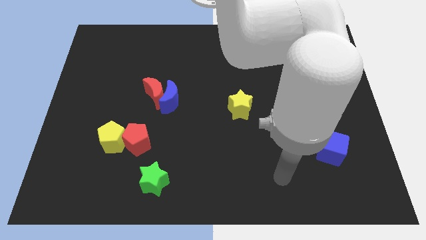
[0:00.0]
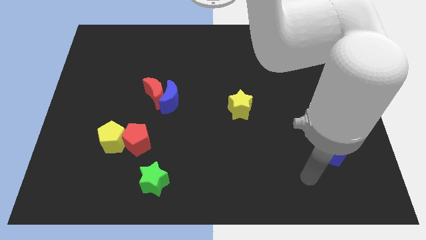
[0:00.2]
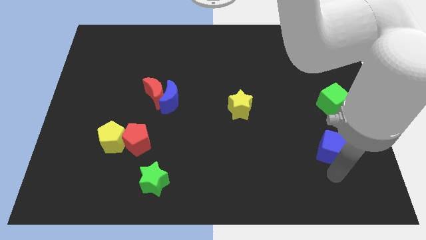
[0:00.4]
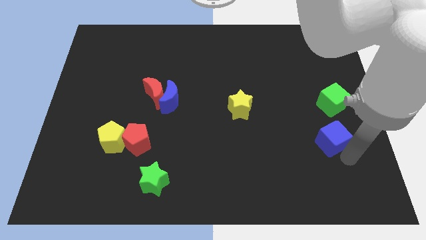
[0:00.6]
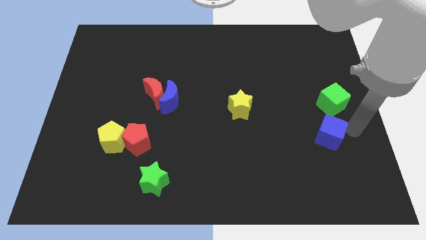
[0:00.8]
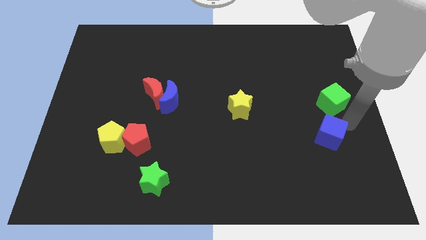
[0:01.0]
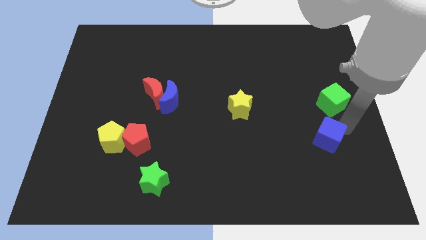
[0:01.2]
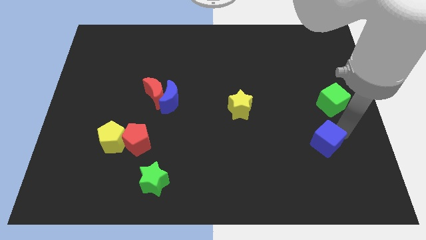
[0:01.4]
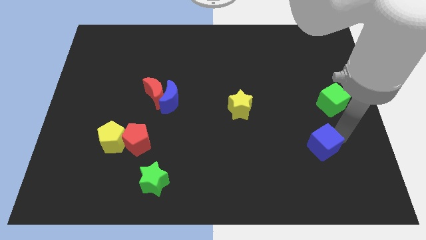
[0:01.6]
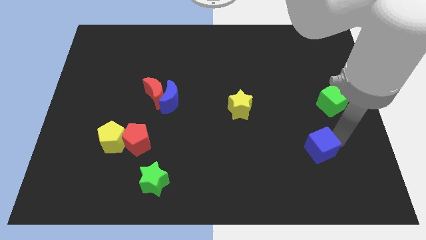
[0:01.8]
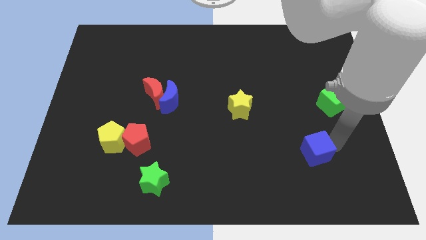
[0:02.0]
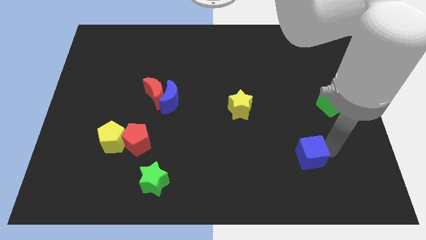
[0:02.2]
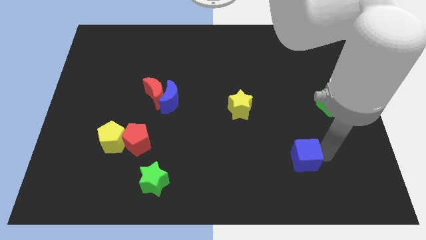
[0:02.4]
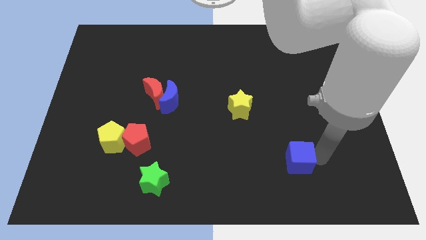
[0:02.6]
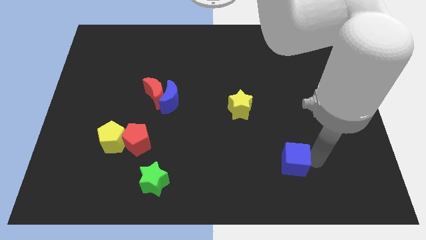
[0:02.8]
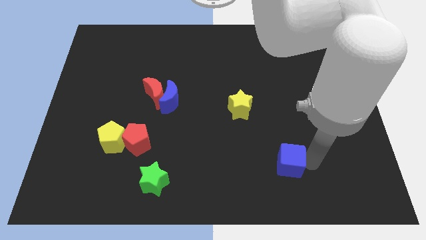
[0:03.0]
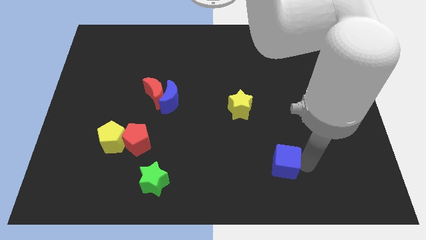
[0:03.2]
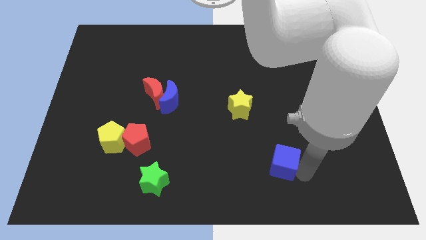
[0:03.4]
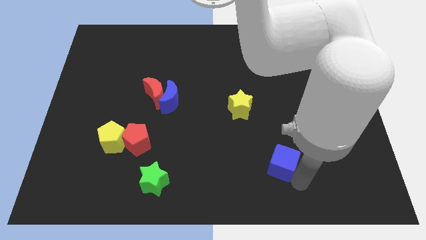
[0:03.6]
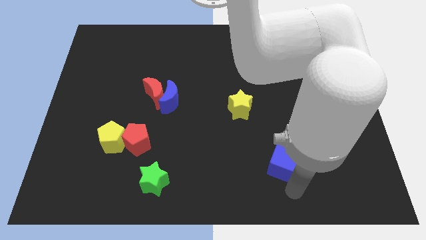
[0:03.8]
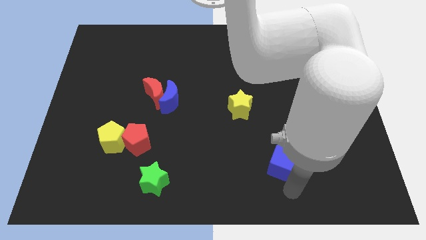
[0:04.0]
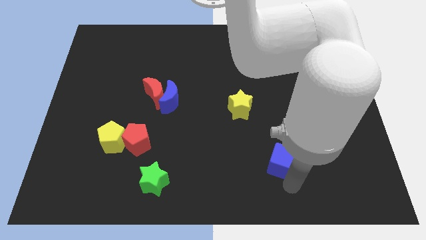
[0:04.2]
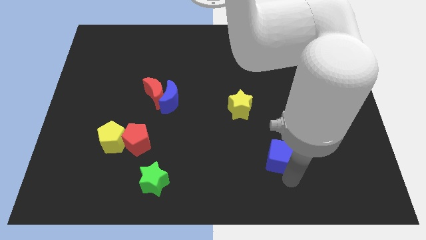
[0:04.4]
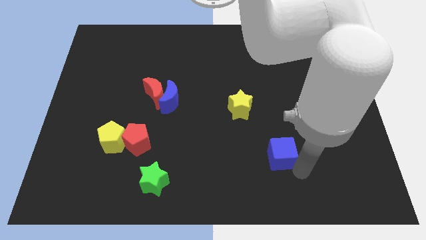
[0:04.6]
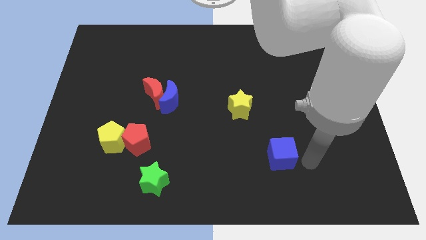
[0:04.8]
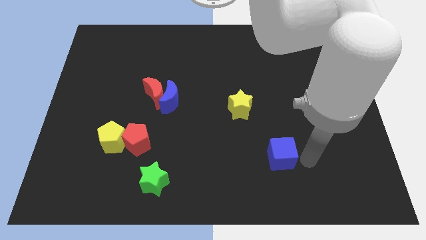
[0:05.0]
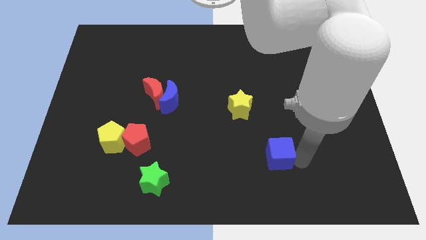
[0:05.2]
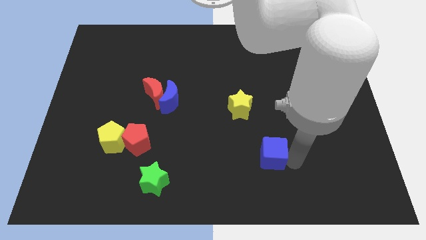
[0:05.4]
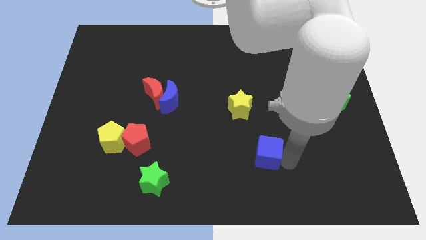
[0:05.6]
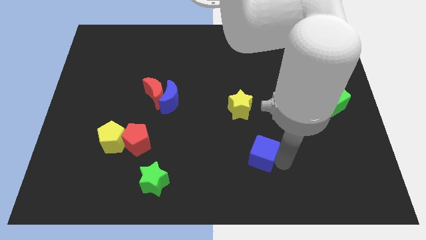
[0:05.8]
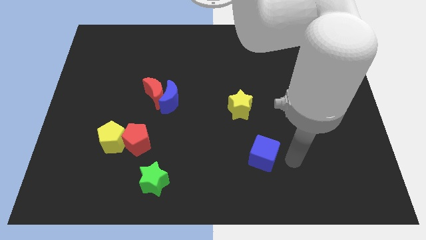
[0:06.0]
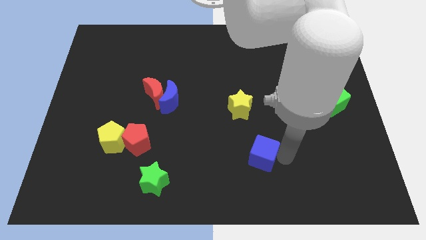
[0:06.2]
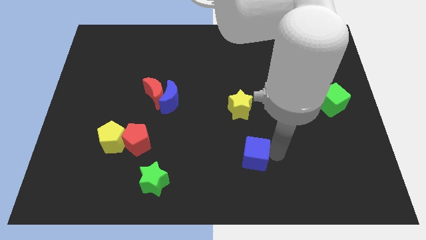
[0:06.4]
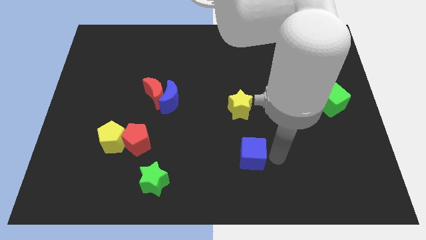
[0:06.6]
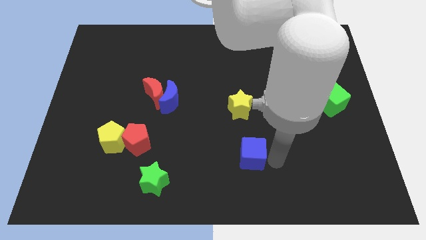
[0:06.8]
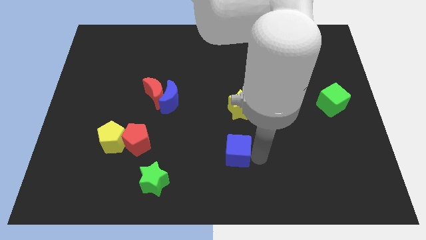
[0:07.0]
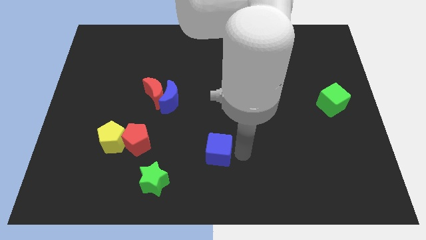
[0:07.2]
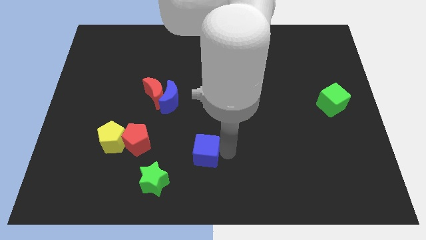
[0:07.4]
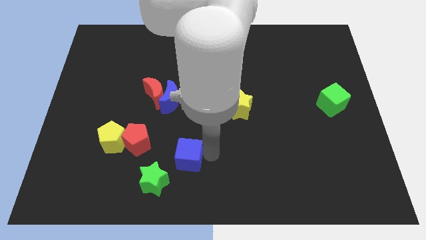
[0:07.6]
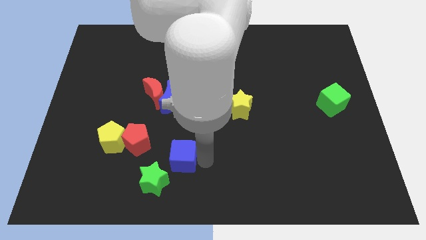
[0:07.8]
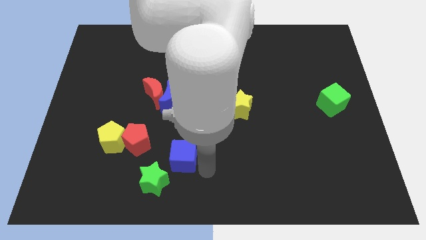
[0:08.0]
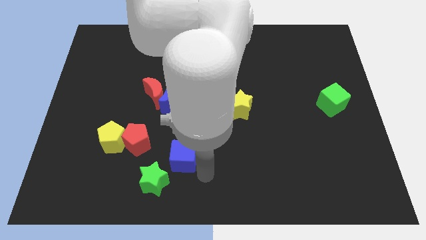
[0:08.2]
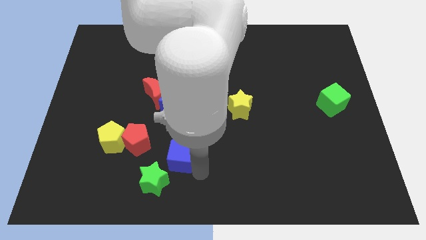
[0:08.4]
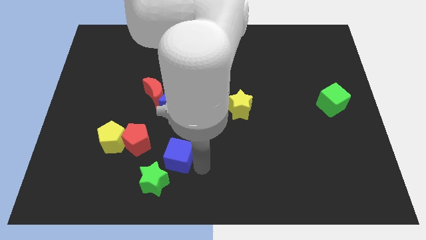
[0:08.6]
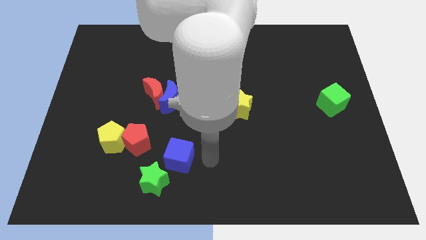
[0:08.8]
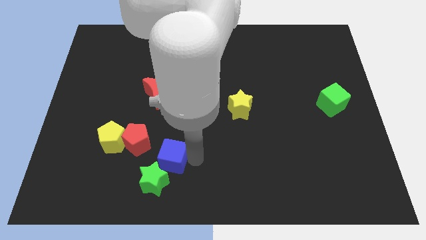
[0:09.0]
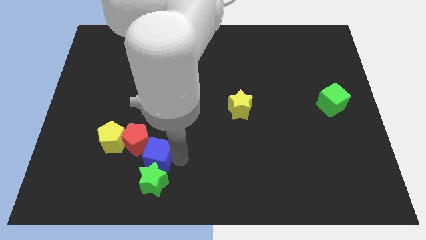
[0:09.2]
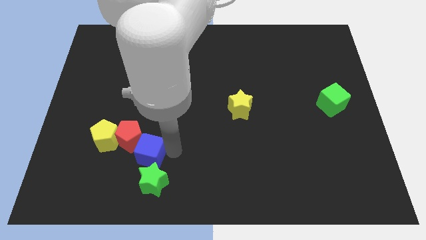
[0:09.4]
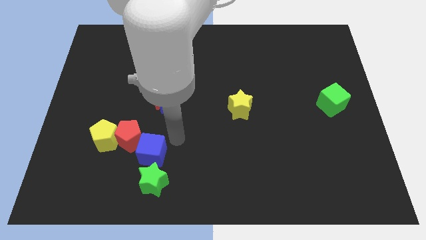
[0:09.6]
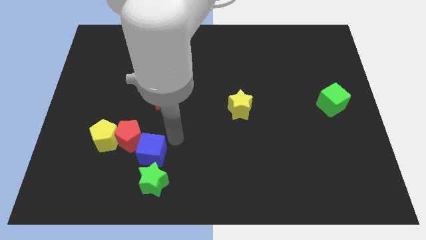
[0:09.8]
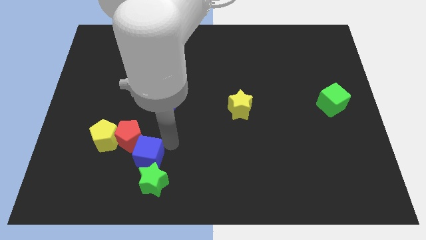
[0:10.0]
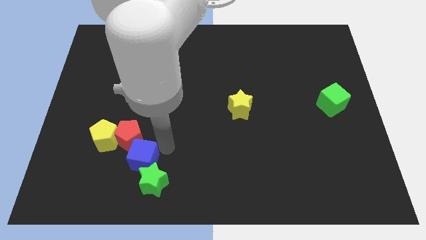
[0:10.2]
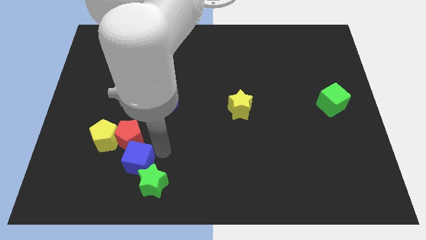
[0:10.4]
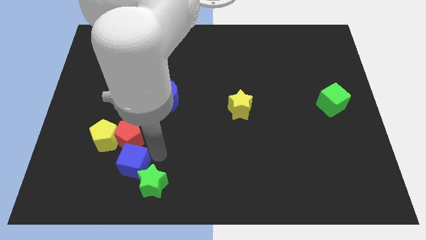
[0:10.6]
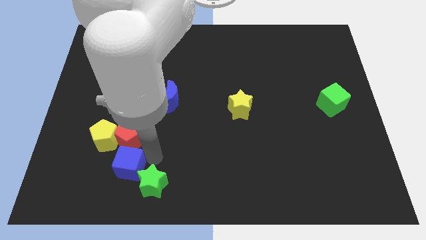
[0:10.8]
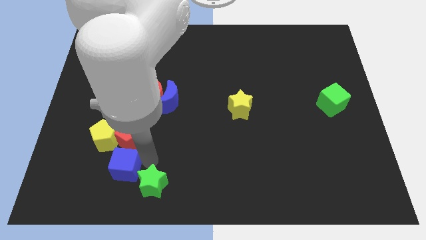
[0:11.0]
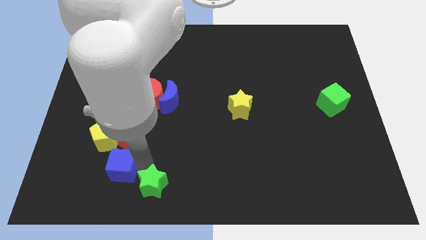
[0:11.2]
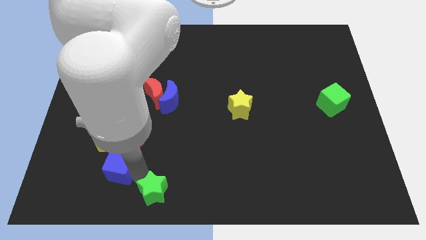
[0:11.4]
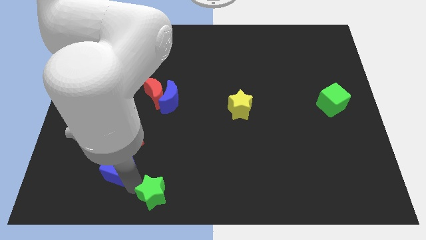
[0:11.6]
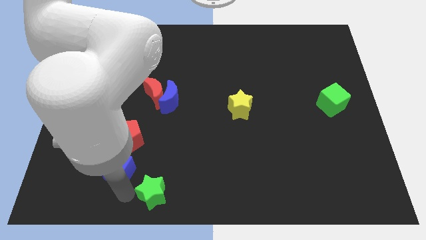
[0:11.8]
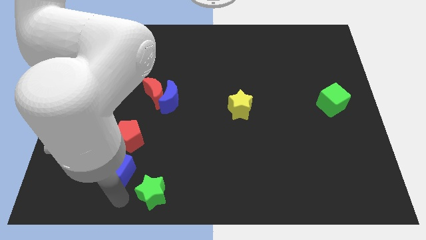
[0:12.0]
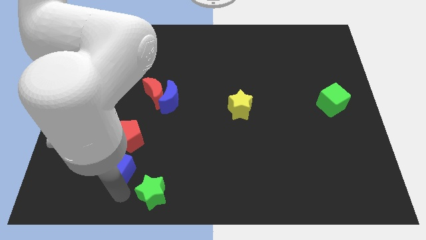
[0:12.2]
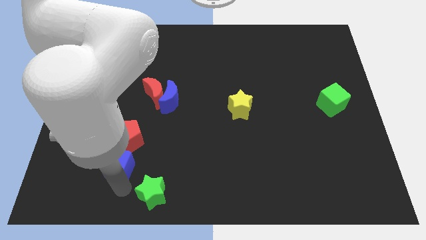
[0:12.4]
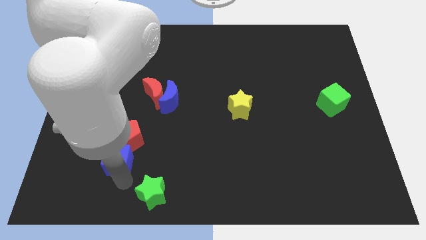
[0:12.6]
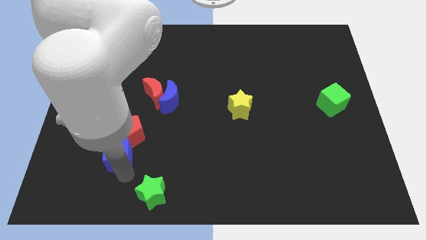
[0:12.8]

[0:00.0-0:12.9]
slide the blue cube towards the yellow pentagon

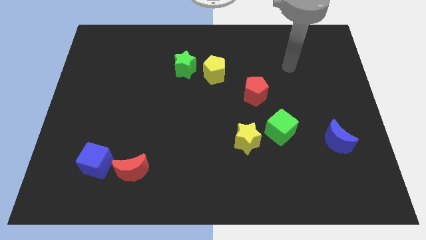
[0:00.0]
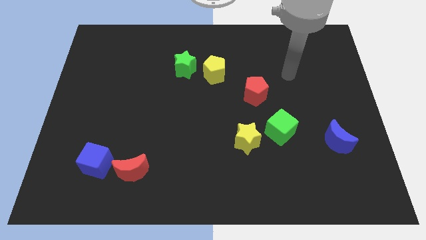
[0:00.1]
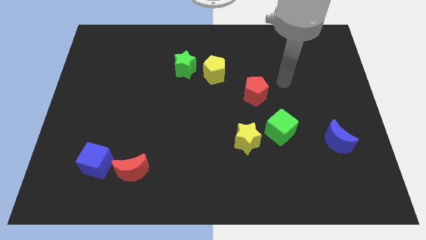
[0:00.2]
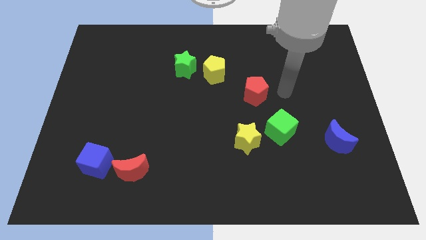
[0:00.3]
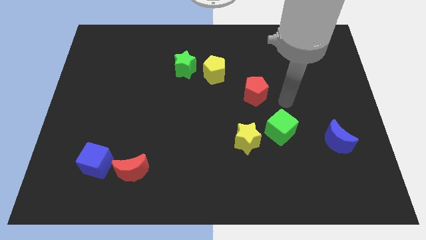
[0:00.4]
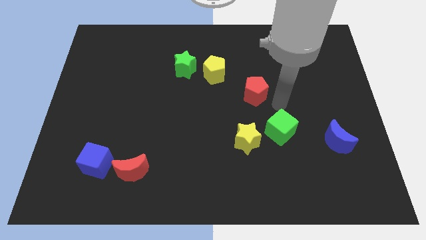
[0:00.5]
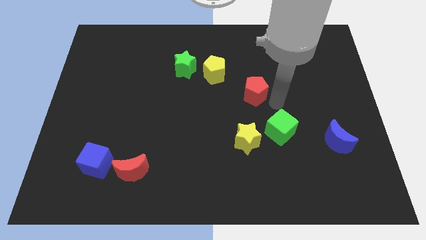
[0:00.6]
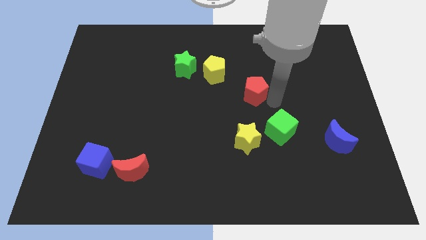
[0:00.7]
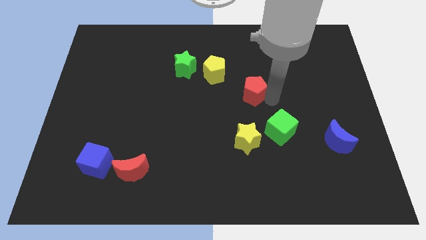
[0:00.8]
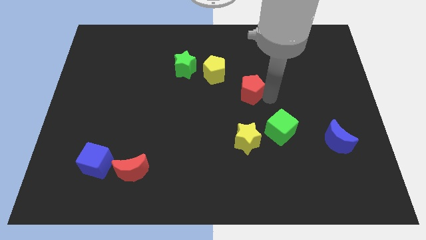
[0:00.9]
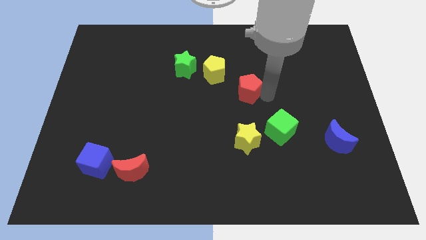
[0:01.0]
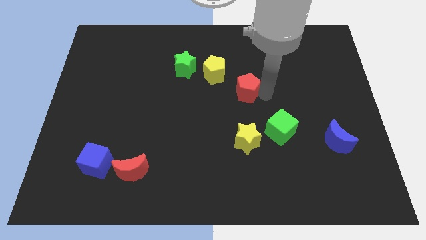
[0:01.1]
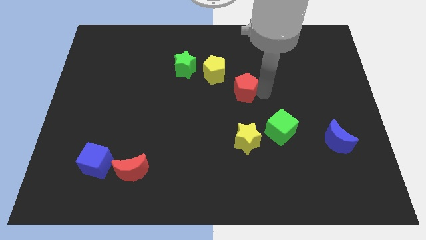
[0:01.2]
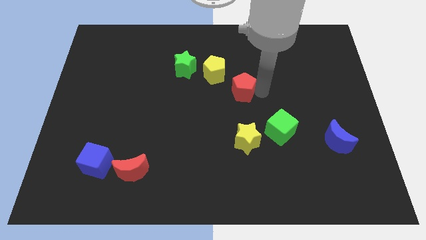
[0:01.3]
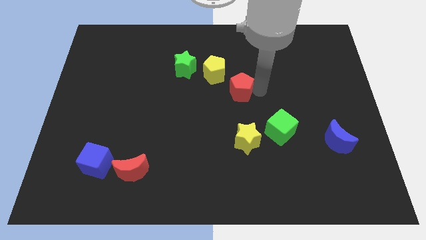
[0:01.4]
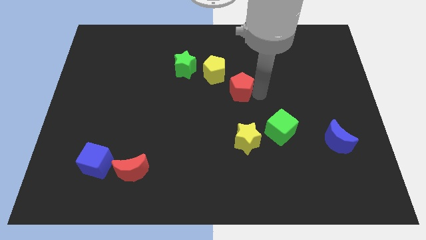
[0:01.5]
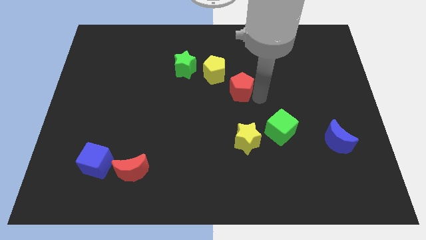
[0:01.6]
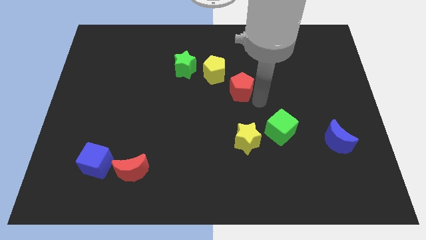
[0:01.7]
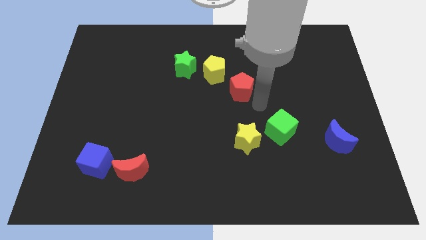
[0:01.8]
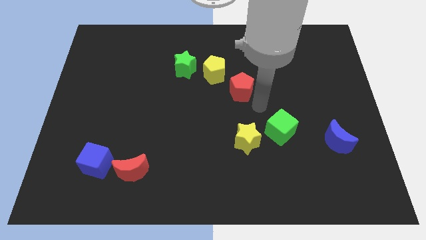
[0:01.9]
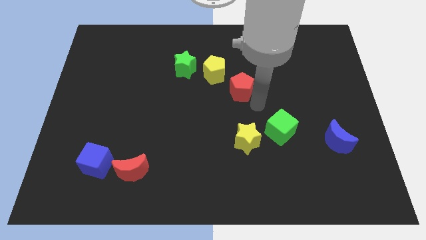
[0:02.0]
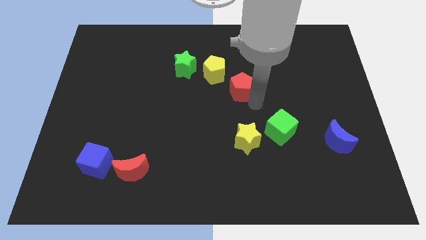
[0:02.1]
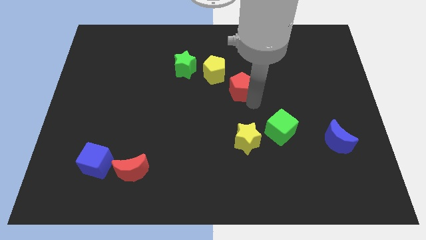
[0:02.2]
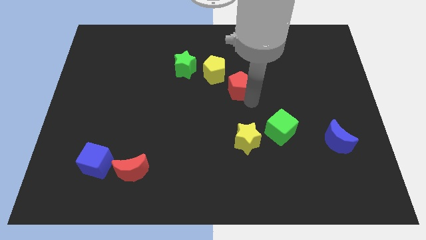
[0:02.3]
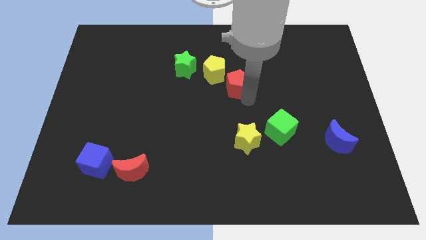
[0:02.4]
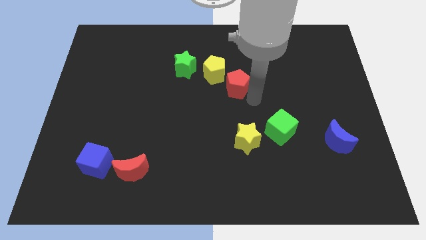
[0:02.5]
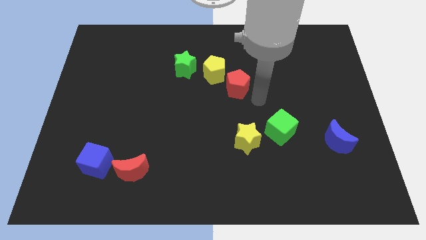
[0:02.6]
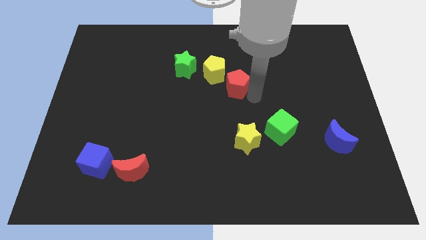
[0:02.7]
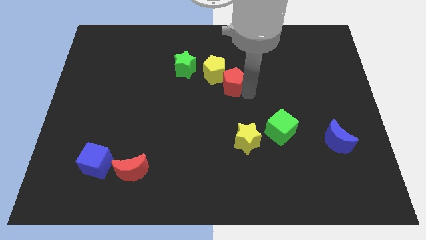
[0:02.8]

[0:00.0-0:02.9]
push the red pentagon next to the yellow pentagon
